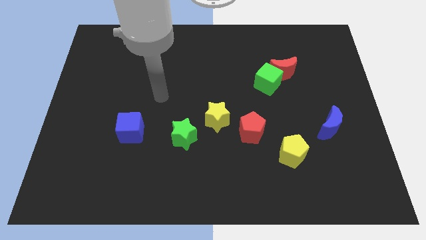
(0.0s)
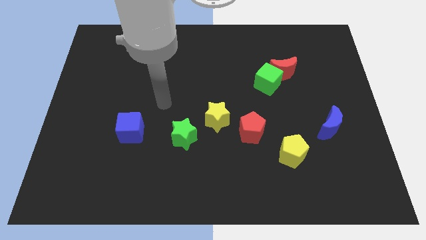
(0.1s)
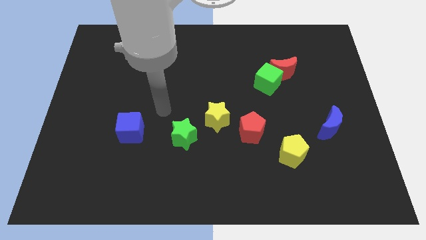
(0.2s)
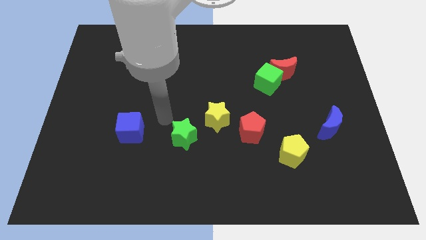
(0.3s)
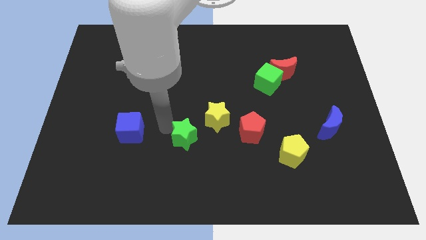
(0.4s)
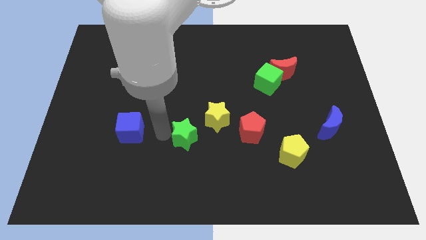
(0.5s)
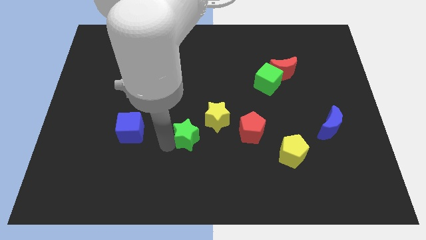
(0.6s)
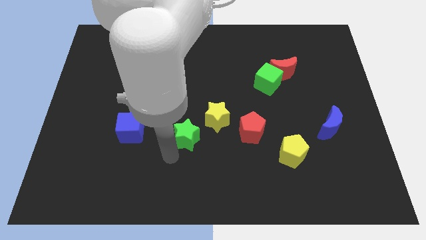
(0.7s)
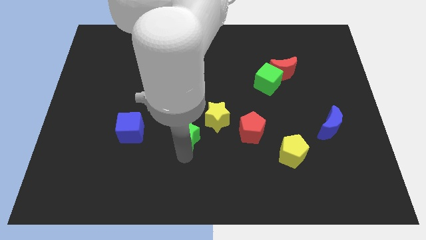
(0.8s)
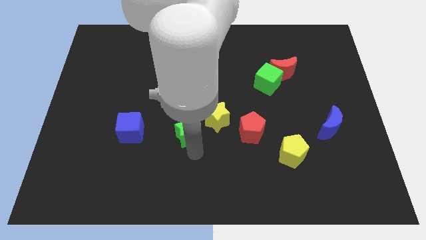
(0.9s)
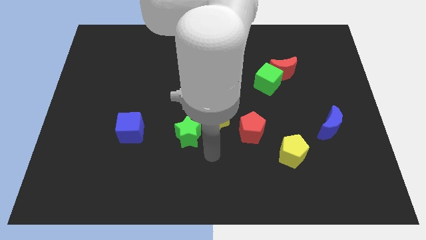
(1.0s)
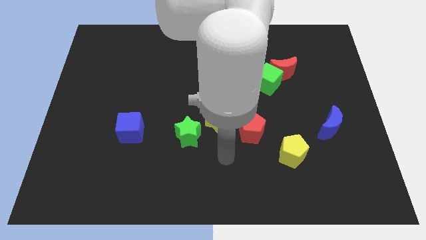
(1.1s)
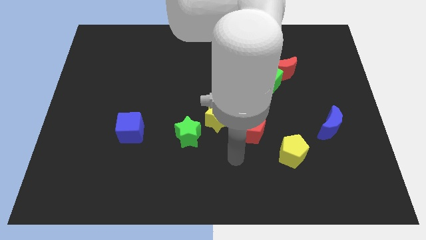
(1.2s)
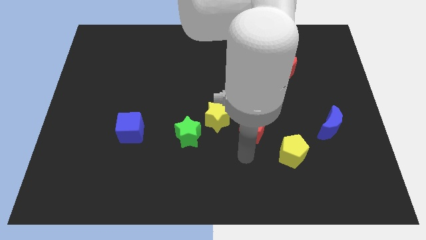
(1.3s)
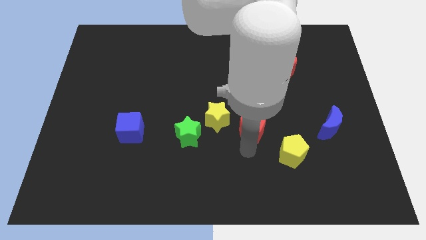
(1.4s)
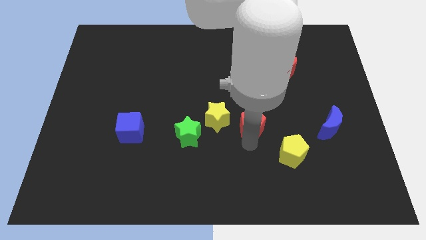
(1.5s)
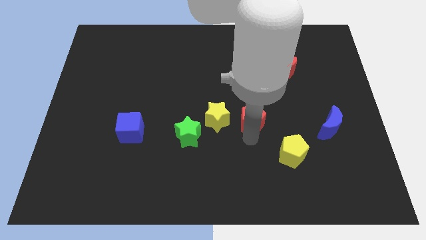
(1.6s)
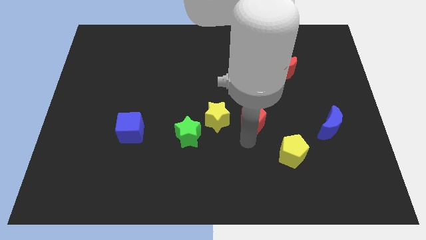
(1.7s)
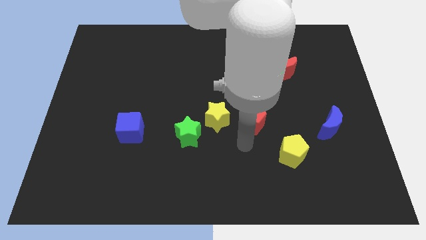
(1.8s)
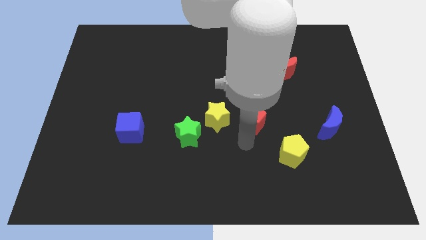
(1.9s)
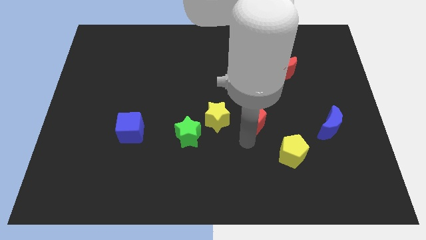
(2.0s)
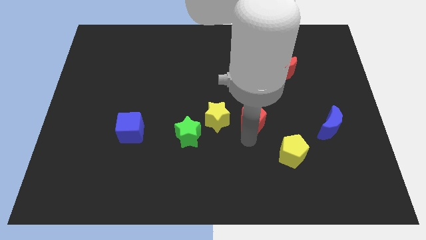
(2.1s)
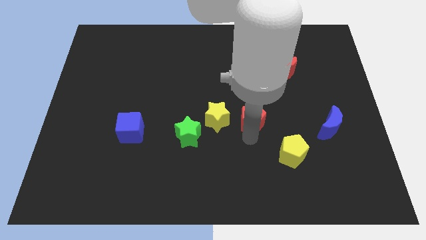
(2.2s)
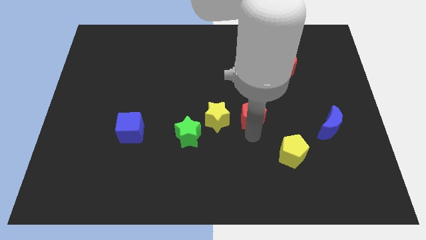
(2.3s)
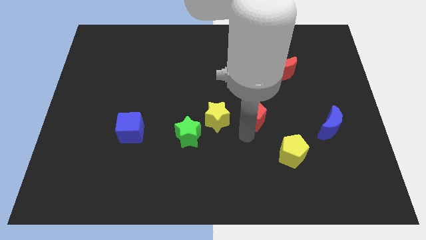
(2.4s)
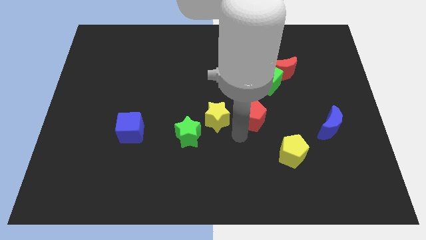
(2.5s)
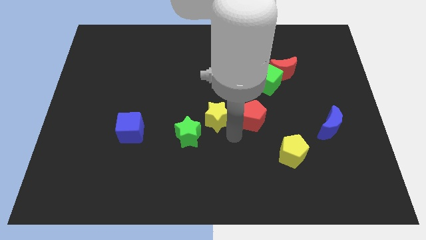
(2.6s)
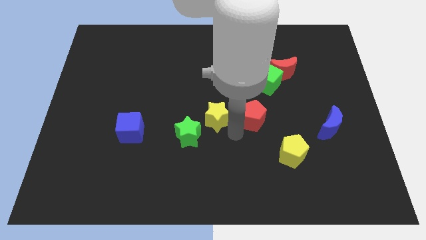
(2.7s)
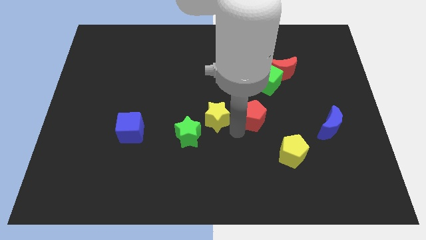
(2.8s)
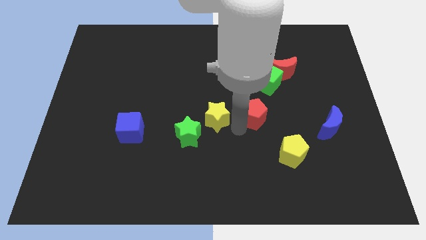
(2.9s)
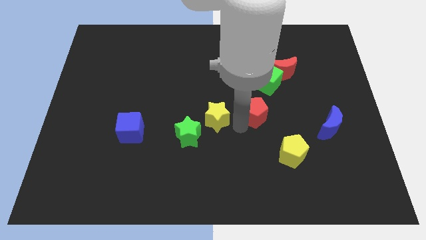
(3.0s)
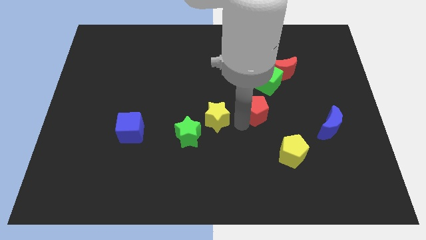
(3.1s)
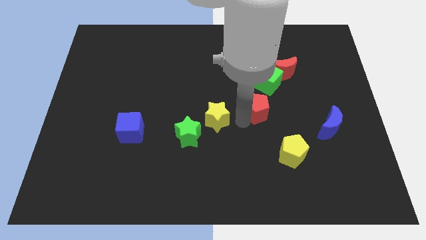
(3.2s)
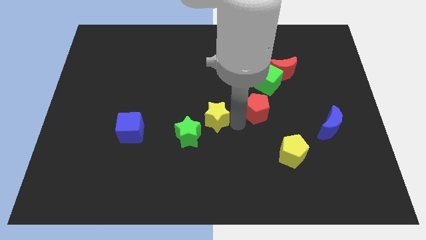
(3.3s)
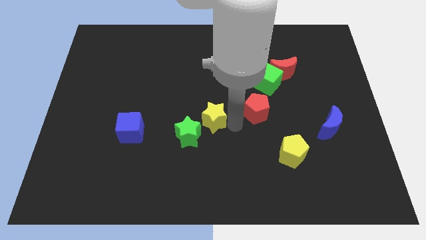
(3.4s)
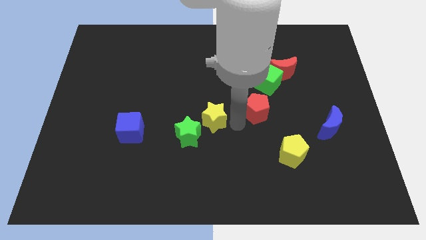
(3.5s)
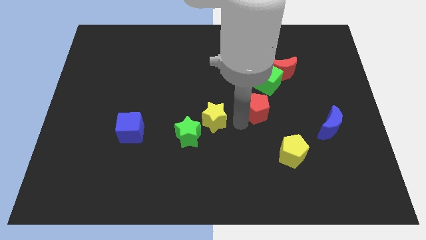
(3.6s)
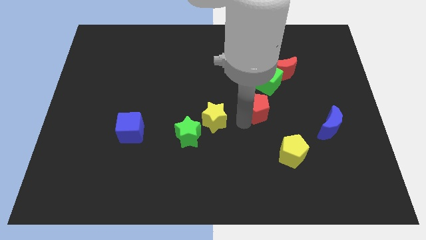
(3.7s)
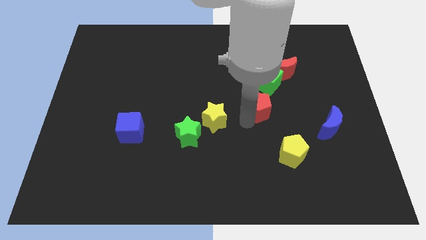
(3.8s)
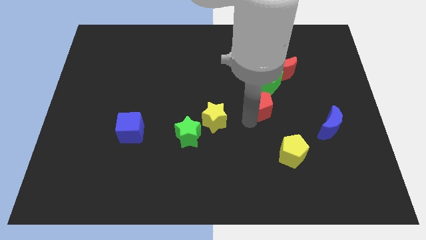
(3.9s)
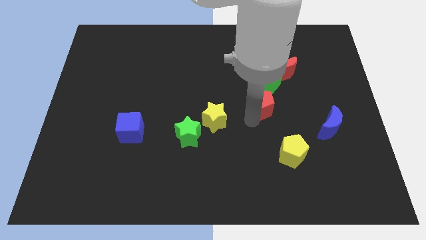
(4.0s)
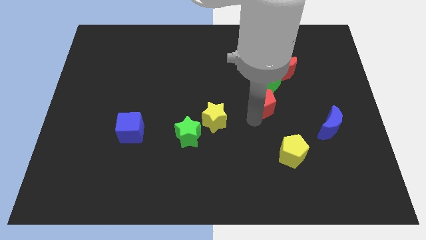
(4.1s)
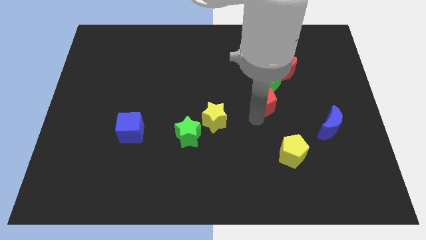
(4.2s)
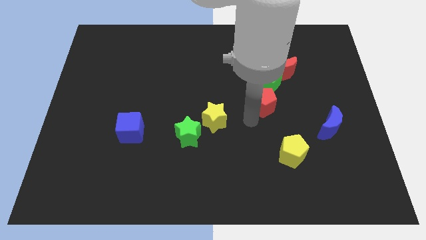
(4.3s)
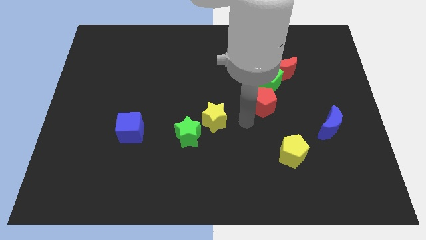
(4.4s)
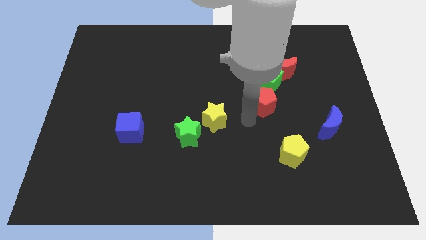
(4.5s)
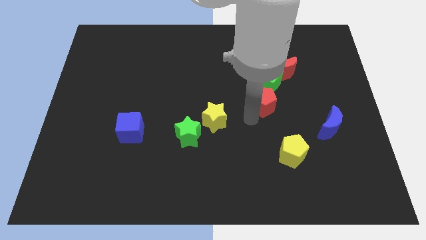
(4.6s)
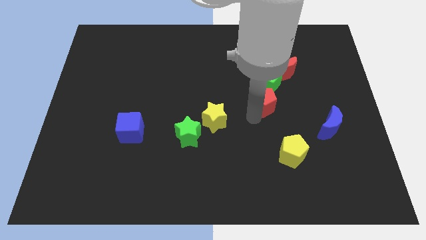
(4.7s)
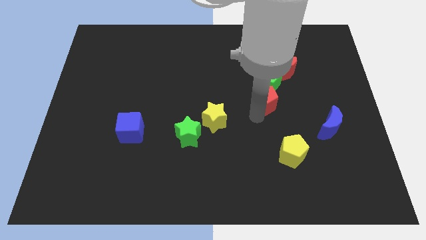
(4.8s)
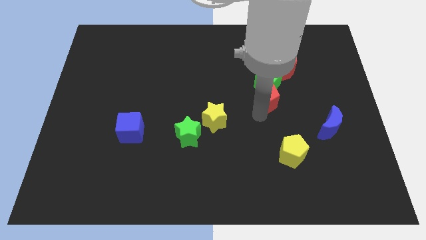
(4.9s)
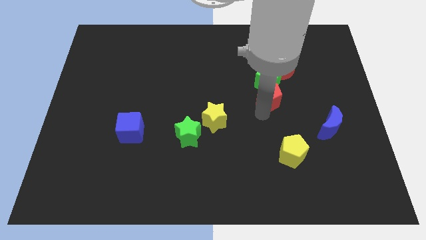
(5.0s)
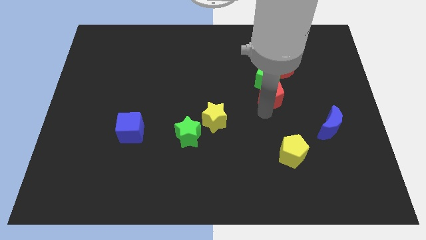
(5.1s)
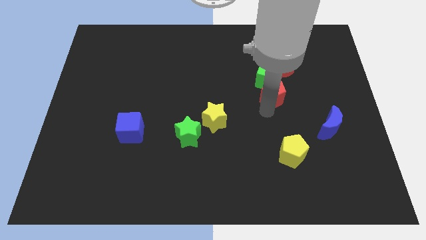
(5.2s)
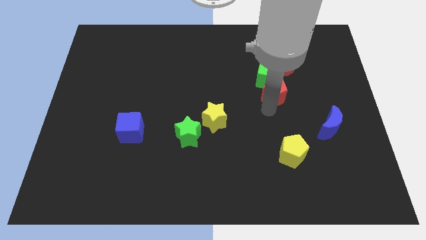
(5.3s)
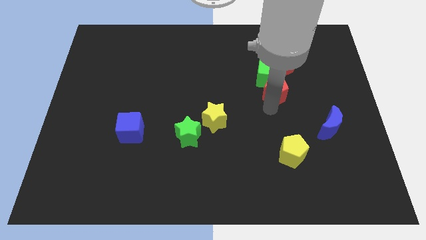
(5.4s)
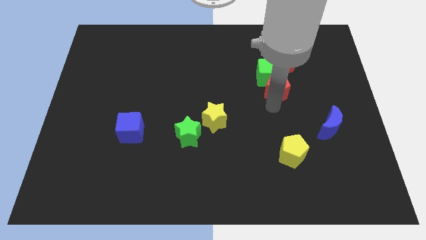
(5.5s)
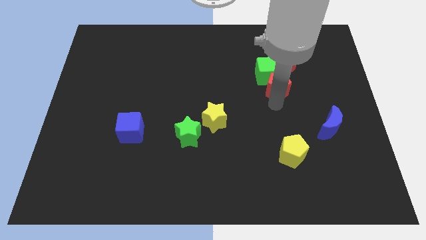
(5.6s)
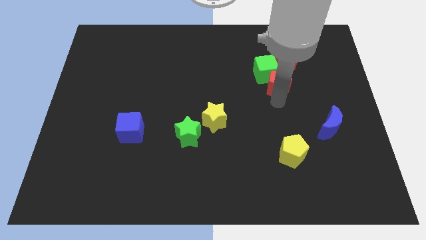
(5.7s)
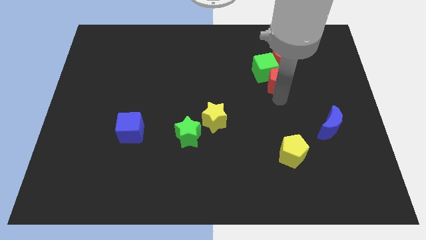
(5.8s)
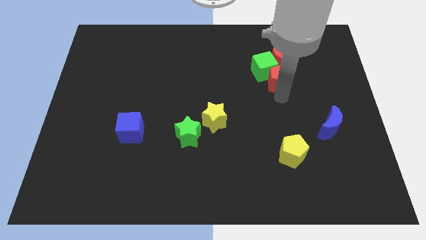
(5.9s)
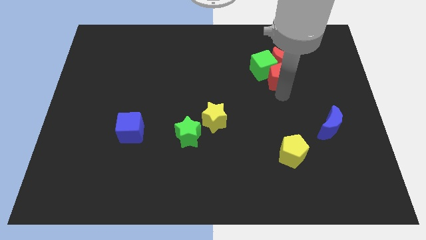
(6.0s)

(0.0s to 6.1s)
slide the red pentagon next to the red moon

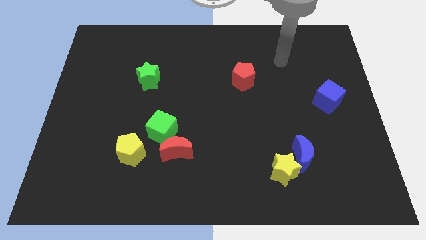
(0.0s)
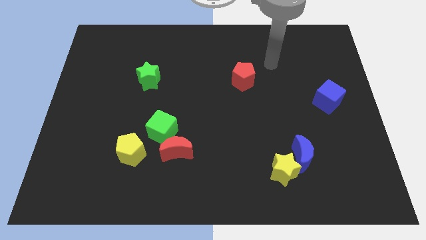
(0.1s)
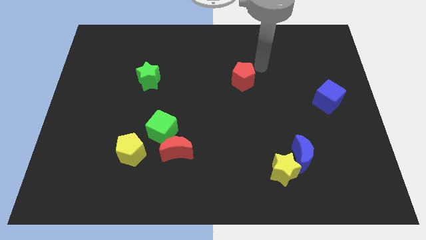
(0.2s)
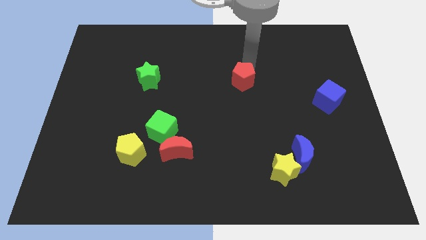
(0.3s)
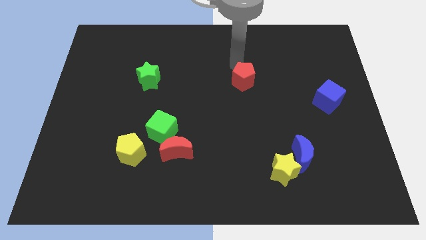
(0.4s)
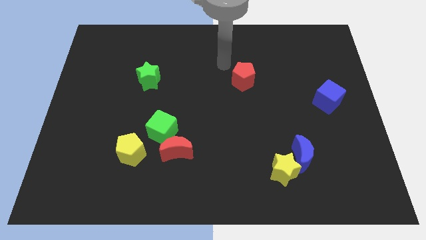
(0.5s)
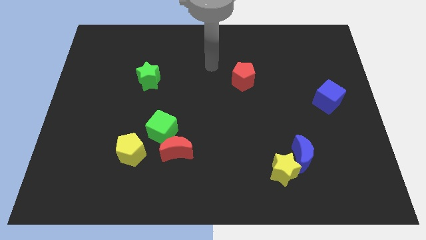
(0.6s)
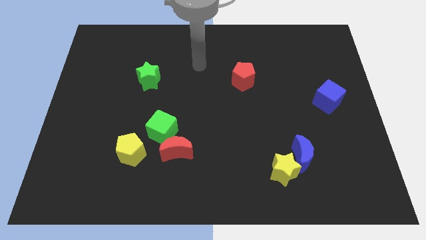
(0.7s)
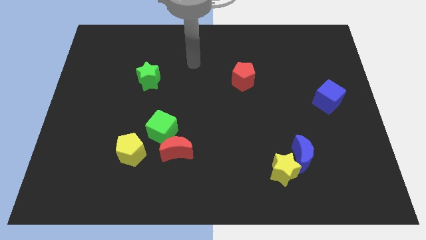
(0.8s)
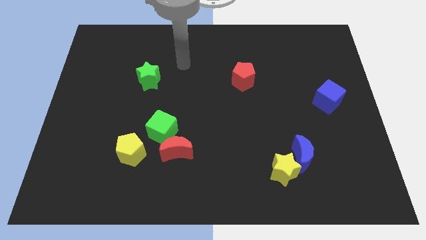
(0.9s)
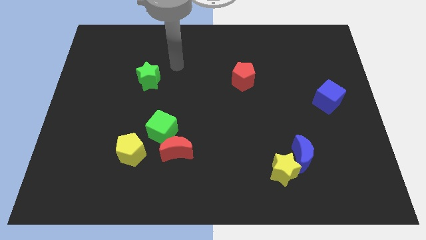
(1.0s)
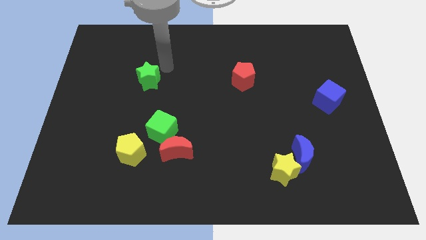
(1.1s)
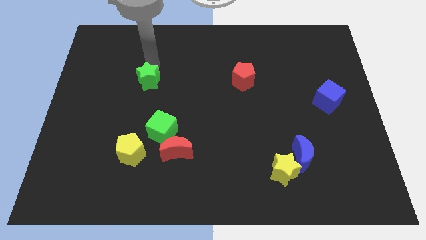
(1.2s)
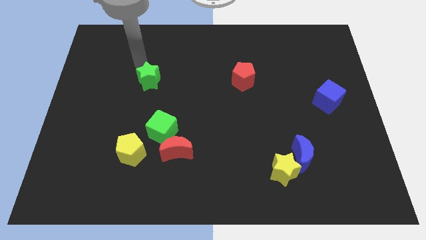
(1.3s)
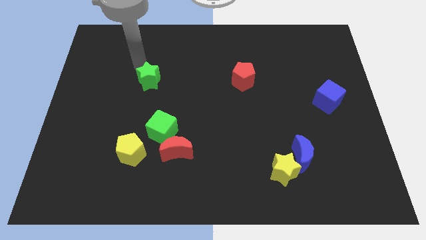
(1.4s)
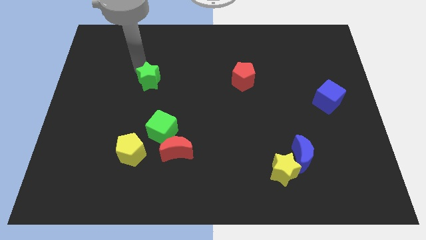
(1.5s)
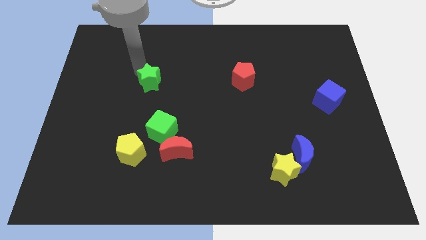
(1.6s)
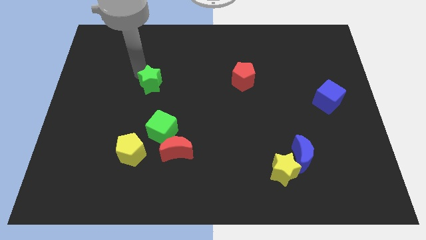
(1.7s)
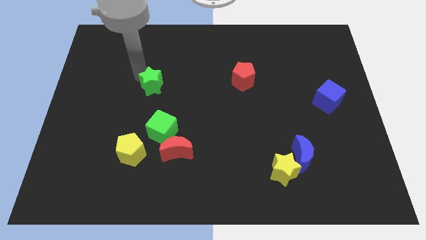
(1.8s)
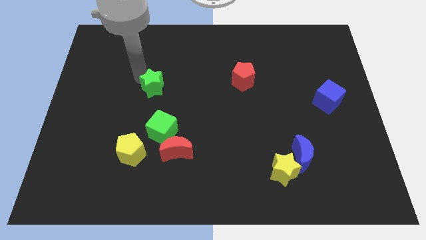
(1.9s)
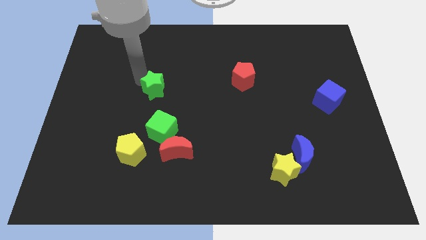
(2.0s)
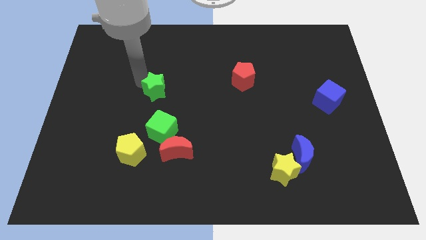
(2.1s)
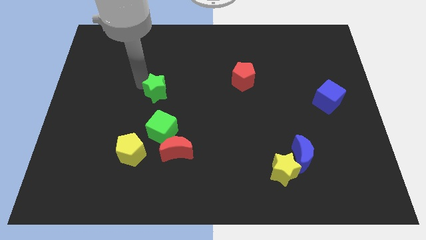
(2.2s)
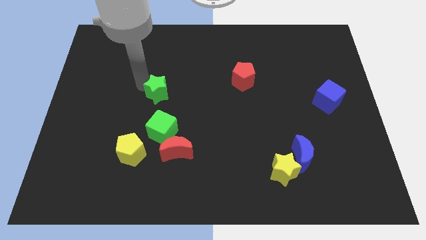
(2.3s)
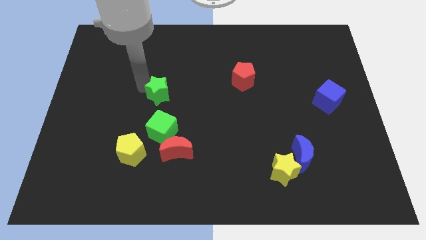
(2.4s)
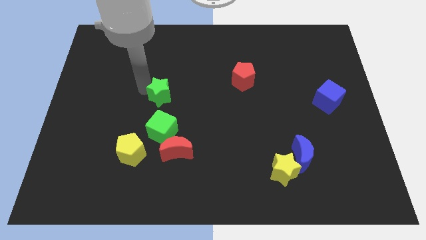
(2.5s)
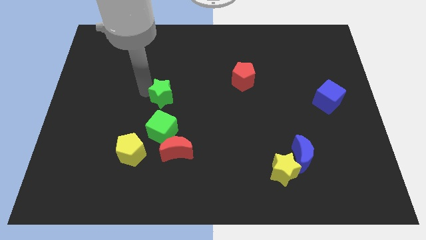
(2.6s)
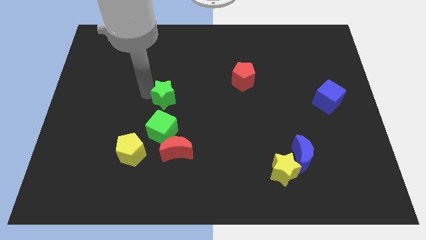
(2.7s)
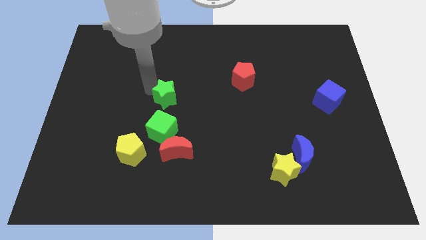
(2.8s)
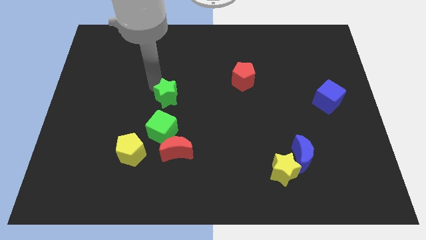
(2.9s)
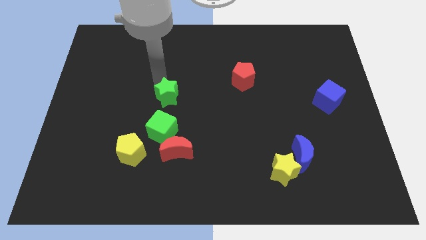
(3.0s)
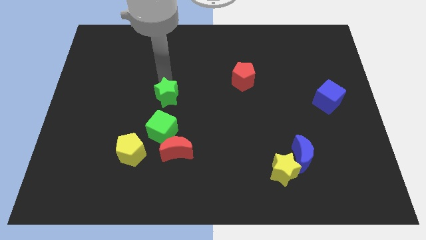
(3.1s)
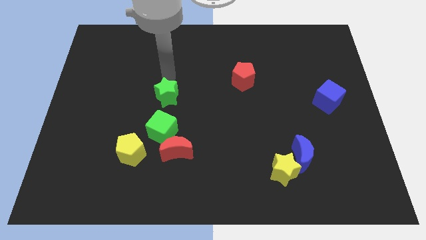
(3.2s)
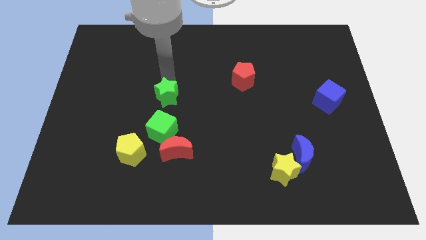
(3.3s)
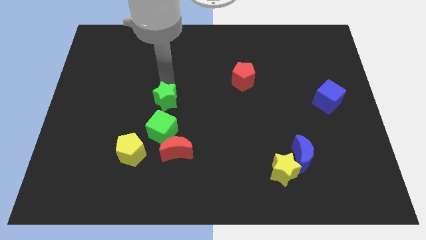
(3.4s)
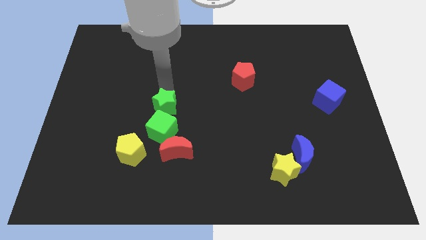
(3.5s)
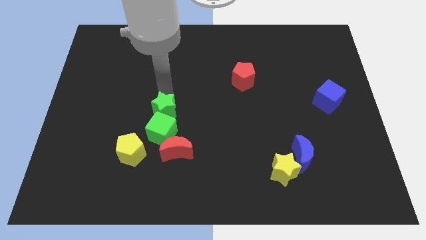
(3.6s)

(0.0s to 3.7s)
push the green star towards the green cube
